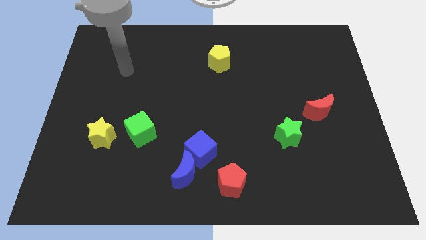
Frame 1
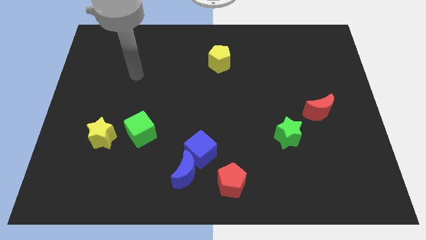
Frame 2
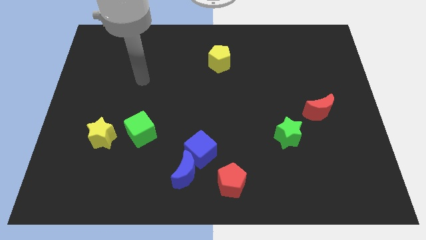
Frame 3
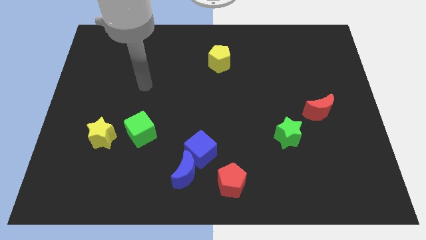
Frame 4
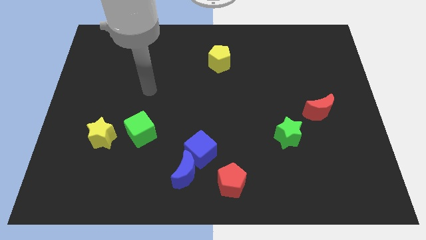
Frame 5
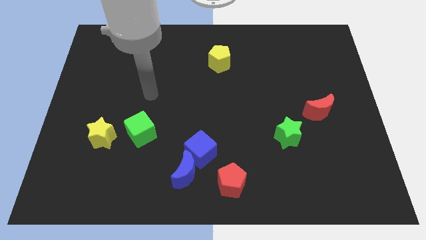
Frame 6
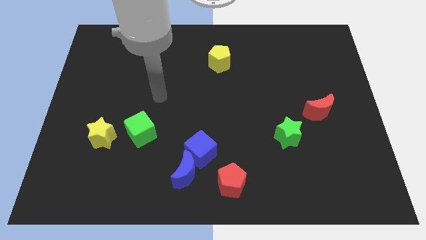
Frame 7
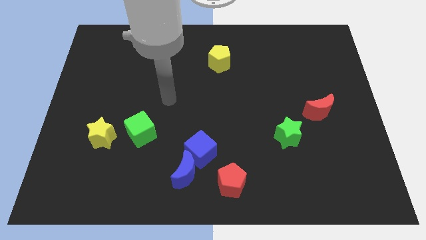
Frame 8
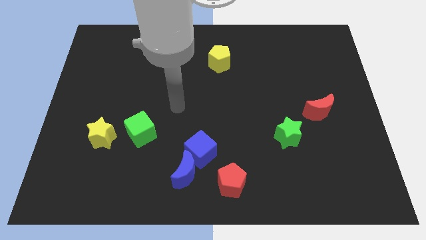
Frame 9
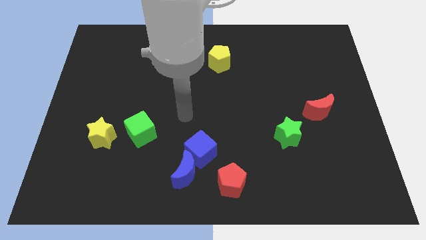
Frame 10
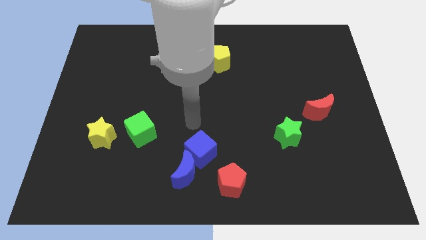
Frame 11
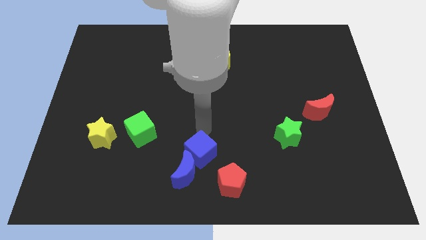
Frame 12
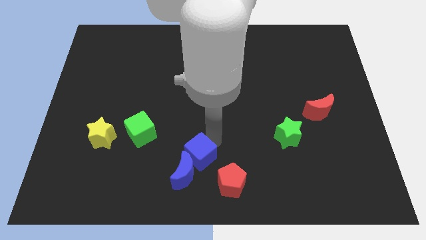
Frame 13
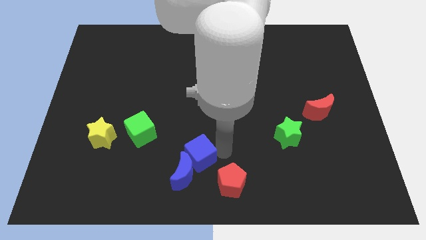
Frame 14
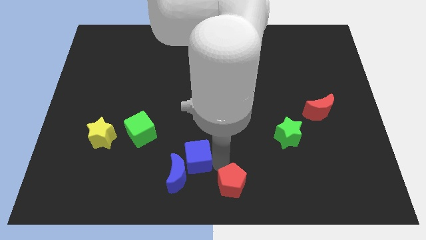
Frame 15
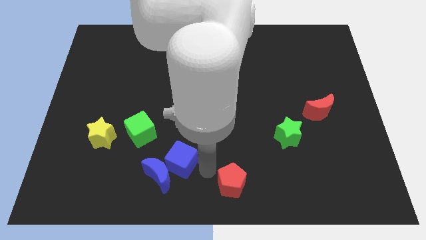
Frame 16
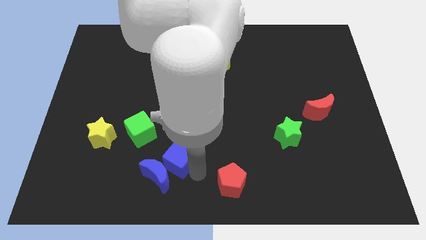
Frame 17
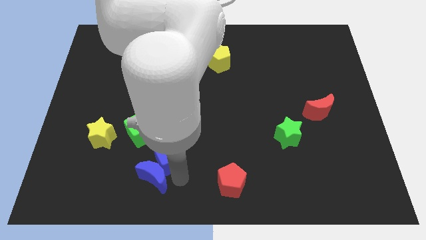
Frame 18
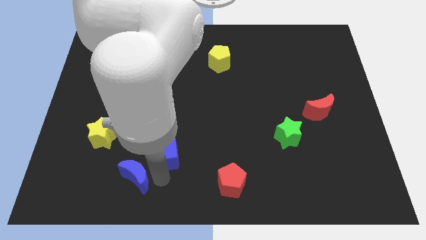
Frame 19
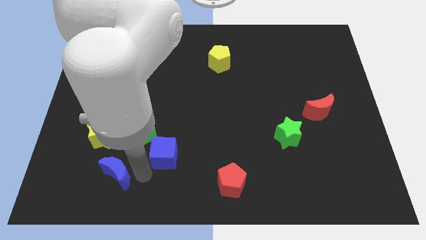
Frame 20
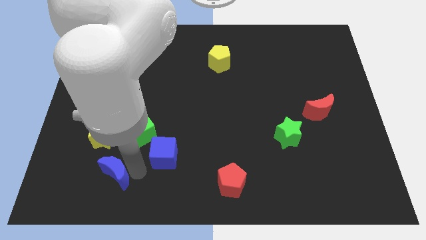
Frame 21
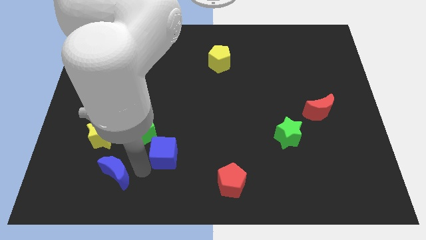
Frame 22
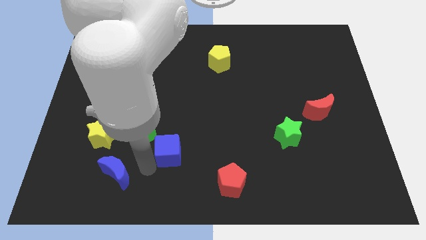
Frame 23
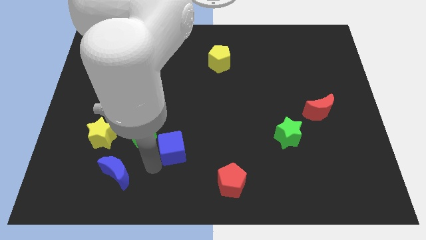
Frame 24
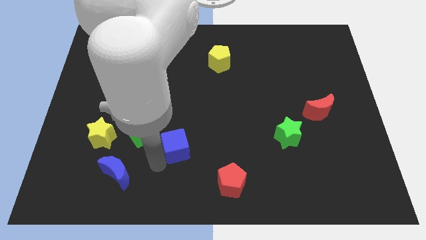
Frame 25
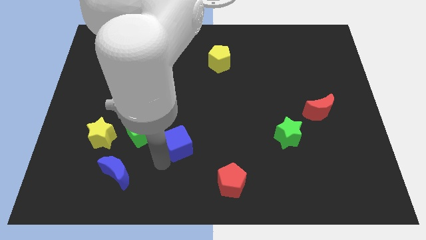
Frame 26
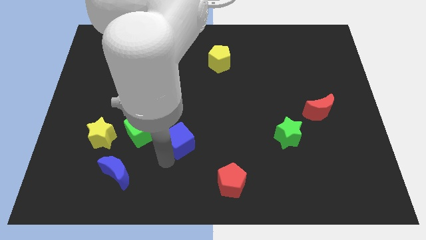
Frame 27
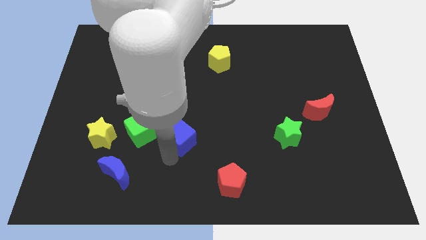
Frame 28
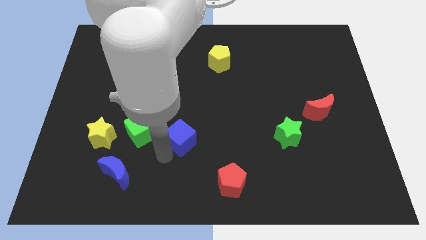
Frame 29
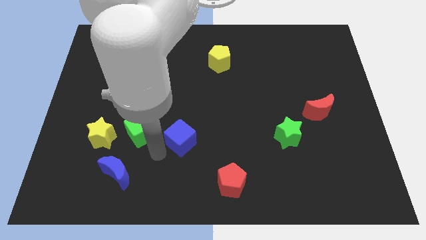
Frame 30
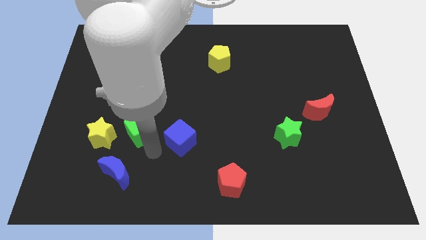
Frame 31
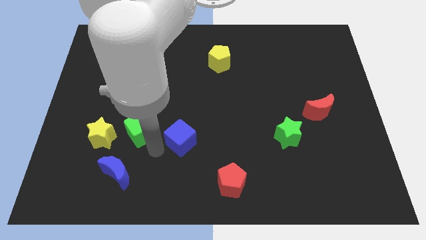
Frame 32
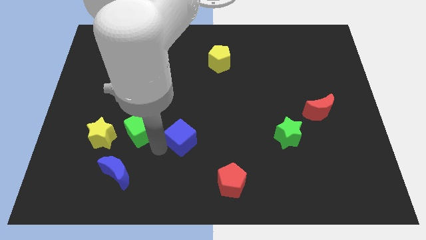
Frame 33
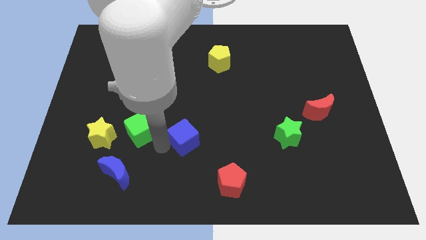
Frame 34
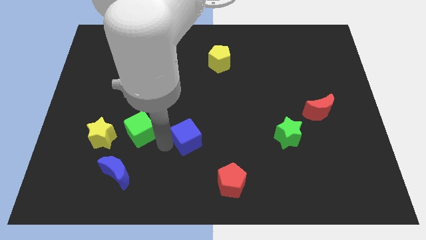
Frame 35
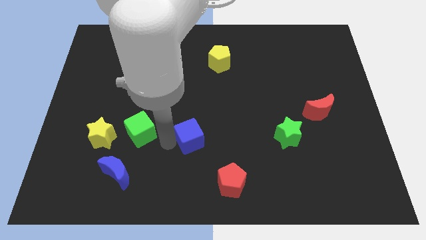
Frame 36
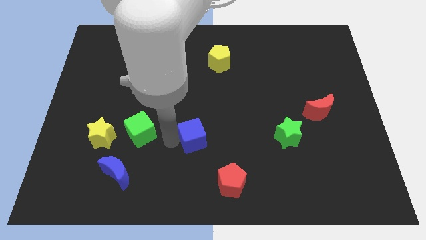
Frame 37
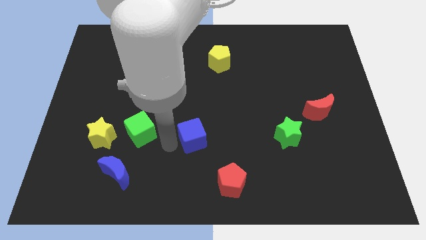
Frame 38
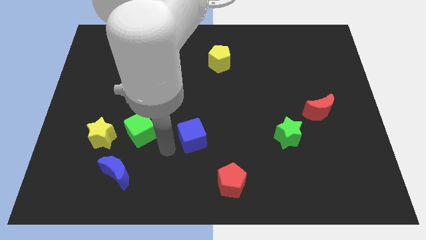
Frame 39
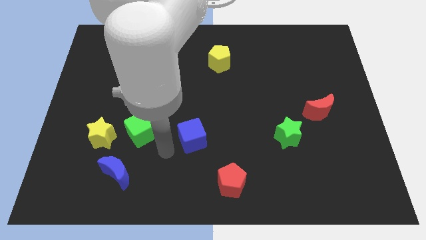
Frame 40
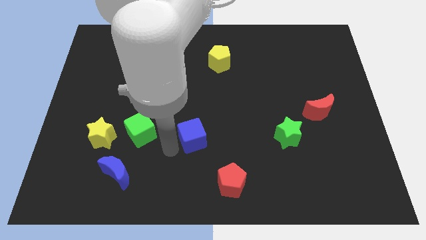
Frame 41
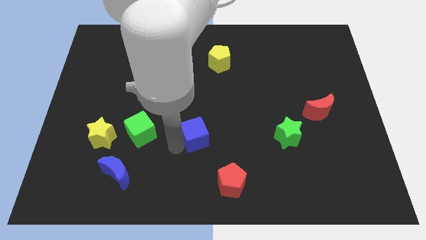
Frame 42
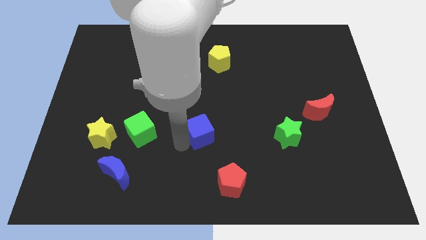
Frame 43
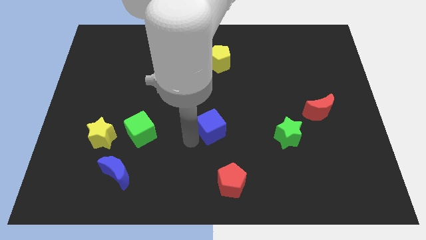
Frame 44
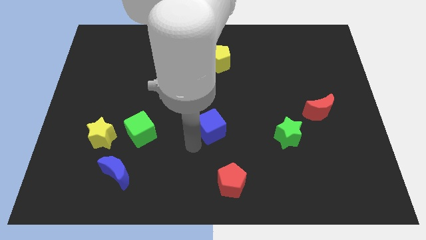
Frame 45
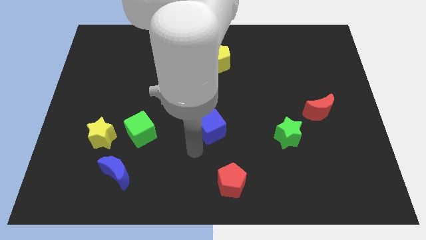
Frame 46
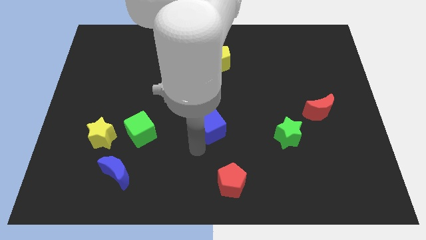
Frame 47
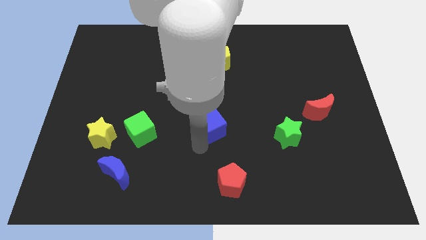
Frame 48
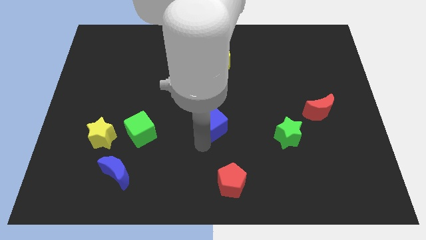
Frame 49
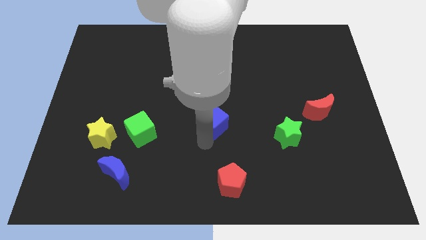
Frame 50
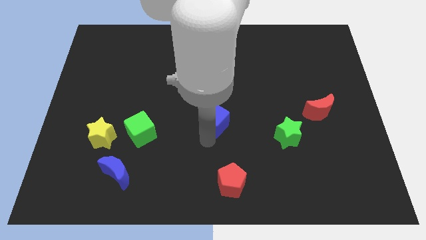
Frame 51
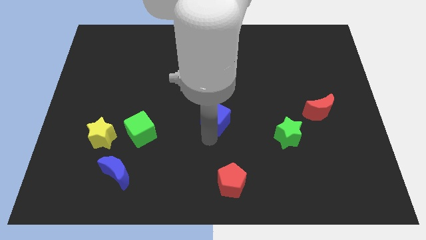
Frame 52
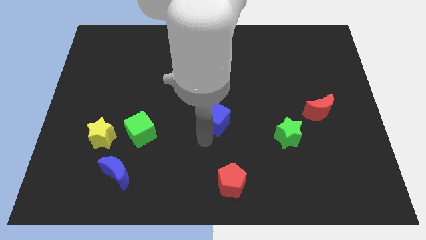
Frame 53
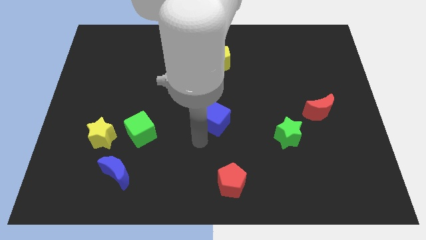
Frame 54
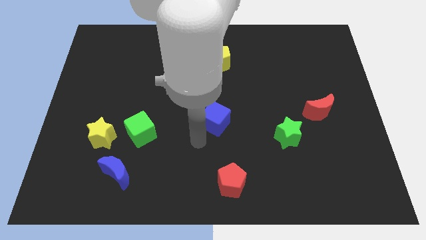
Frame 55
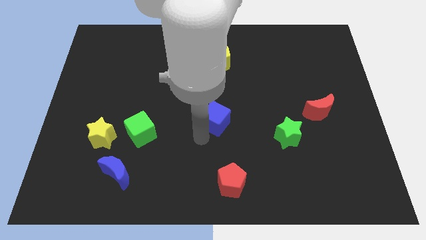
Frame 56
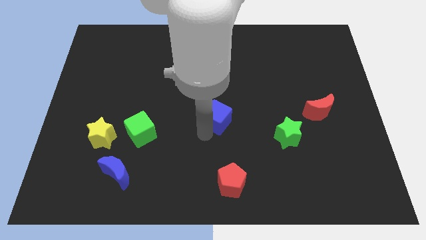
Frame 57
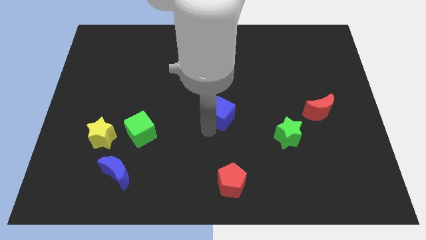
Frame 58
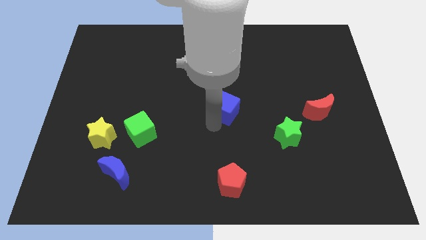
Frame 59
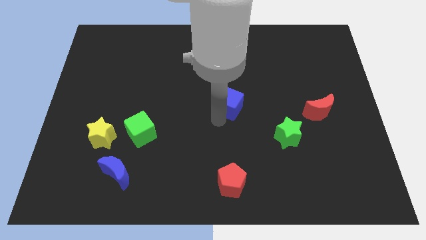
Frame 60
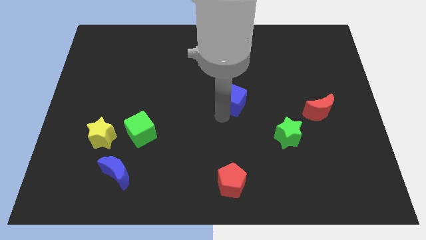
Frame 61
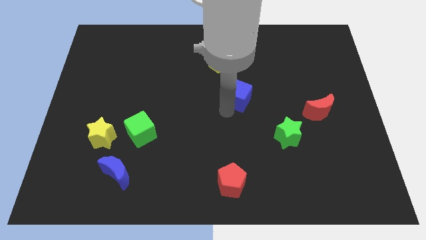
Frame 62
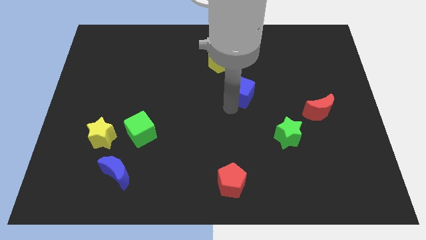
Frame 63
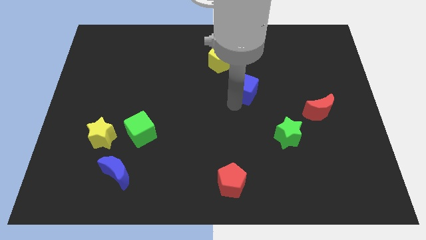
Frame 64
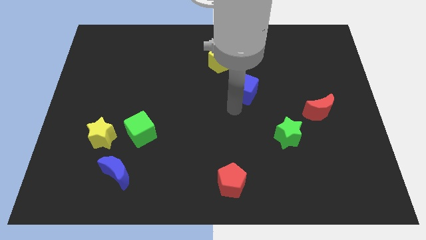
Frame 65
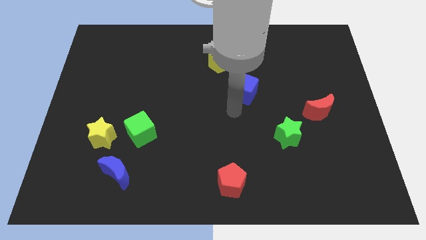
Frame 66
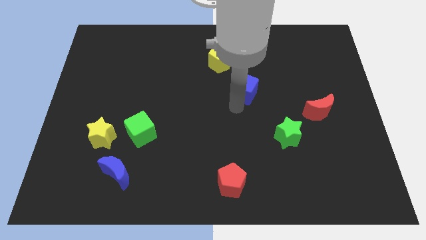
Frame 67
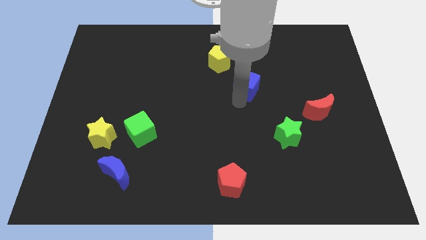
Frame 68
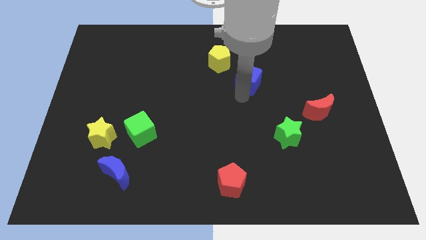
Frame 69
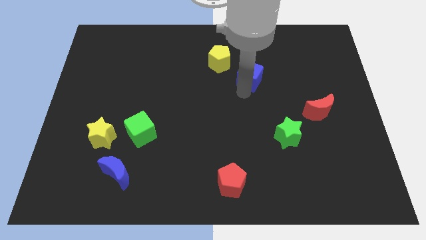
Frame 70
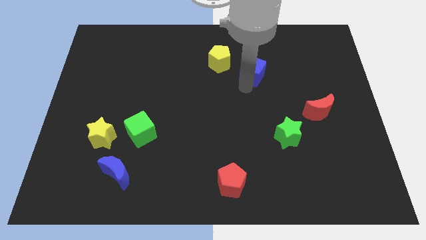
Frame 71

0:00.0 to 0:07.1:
slide the blue cube just right of the yellow pentagon
